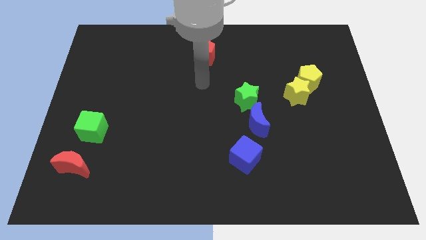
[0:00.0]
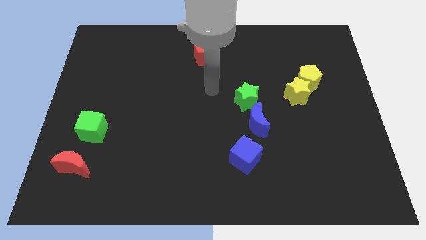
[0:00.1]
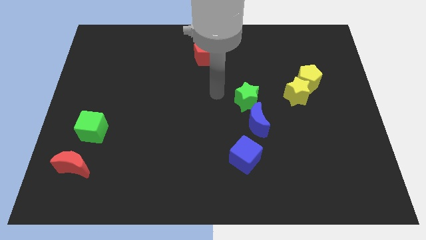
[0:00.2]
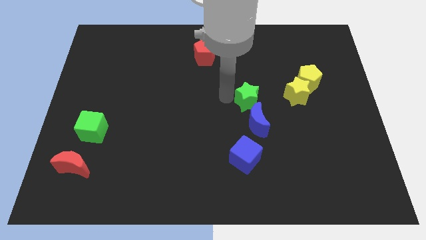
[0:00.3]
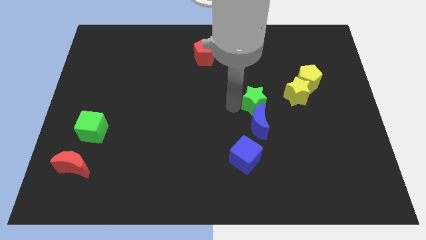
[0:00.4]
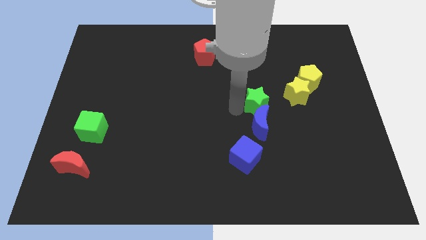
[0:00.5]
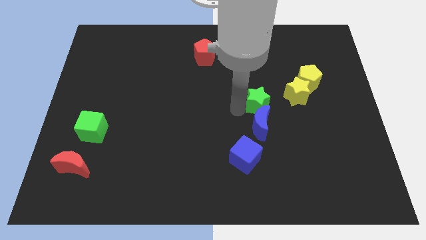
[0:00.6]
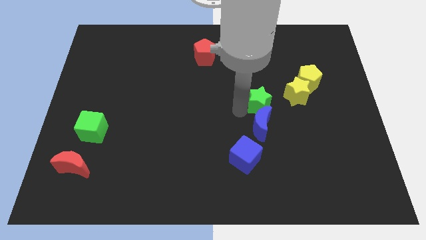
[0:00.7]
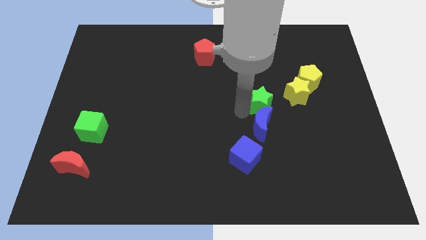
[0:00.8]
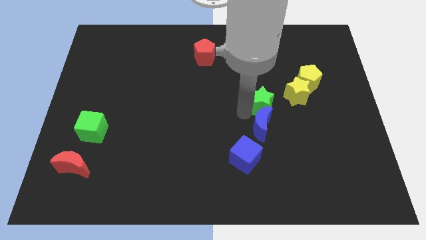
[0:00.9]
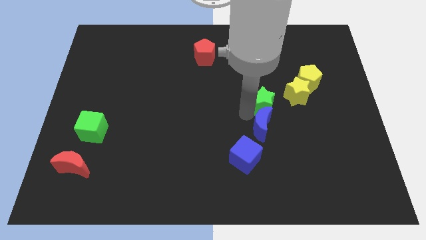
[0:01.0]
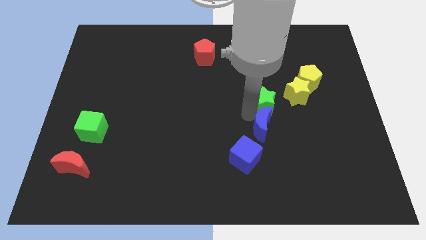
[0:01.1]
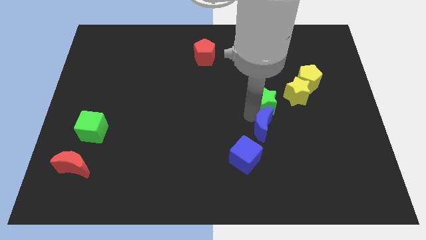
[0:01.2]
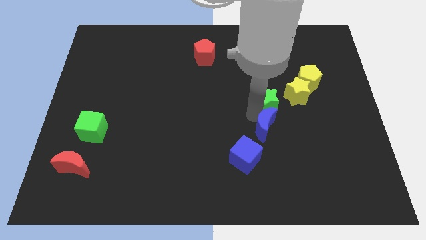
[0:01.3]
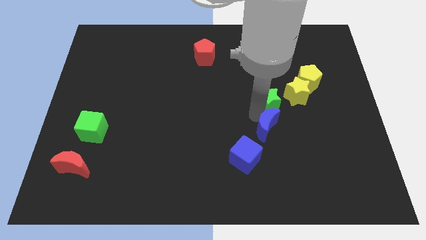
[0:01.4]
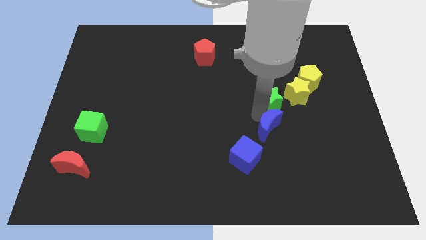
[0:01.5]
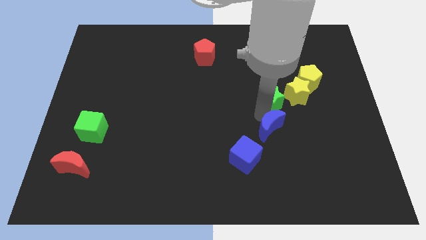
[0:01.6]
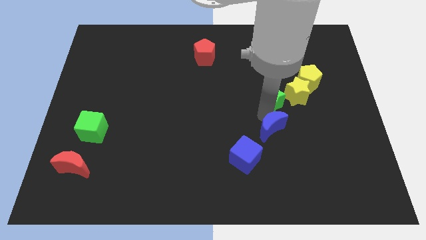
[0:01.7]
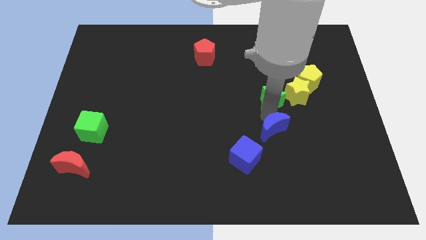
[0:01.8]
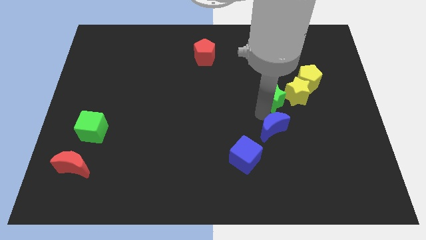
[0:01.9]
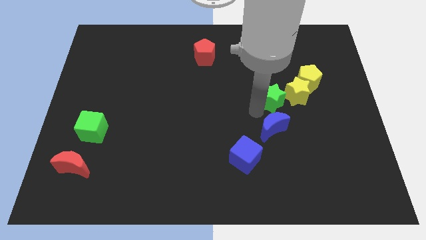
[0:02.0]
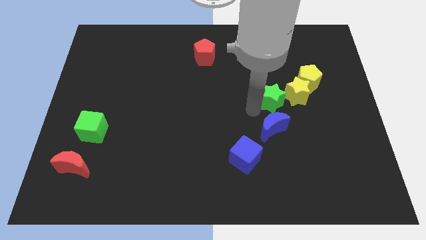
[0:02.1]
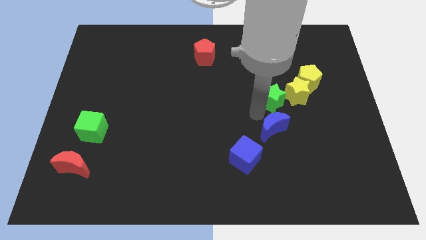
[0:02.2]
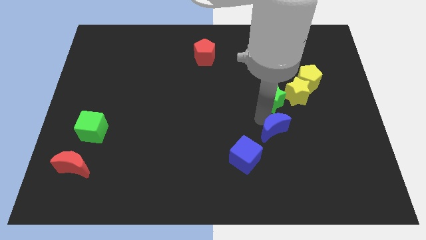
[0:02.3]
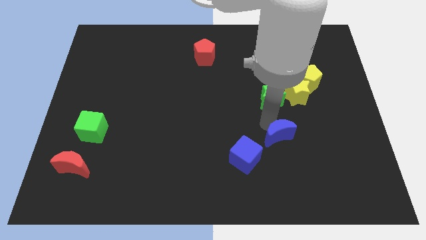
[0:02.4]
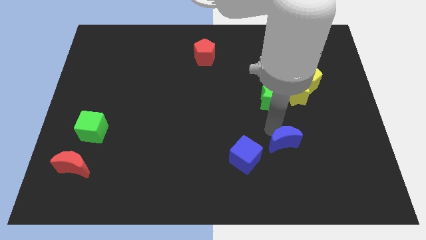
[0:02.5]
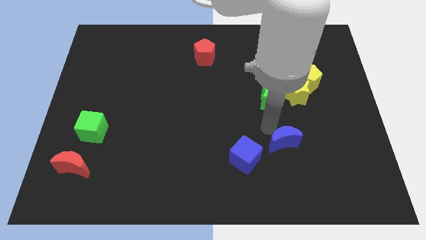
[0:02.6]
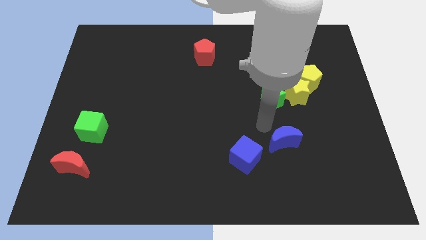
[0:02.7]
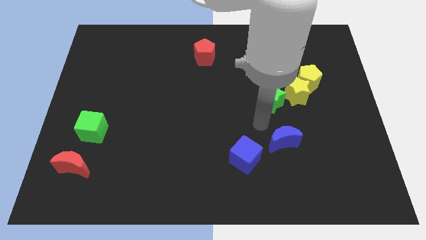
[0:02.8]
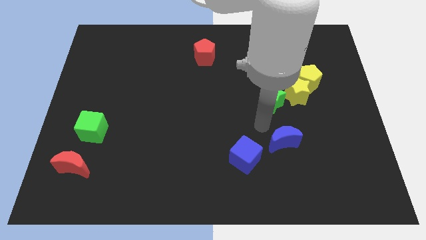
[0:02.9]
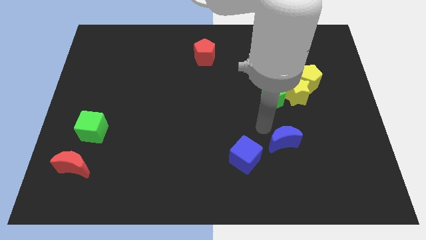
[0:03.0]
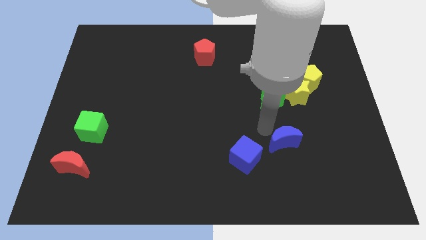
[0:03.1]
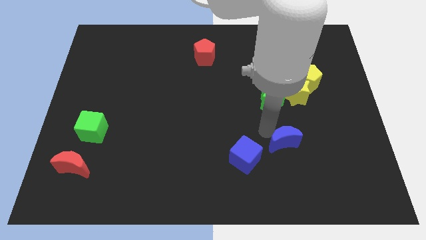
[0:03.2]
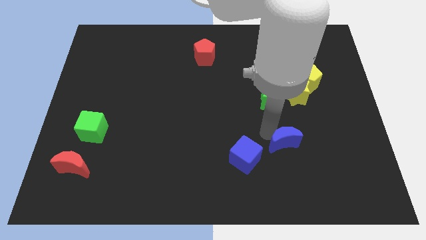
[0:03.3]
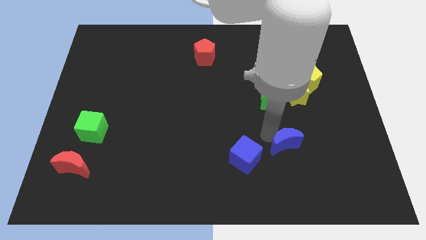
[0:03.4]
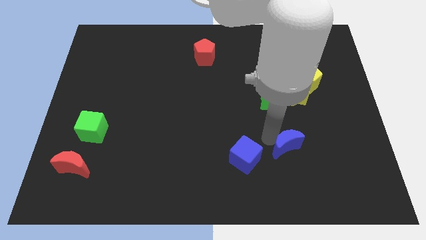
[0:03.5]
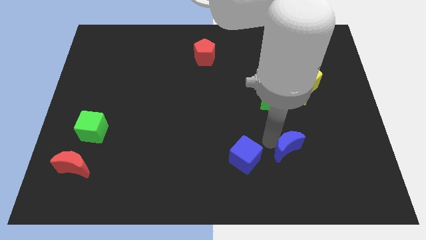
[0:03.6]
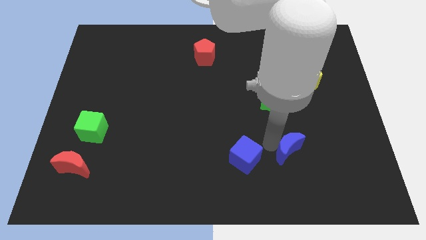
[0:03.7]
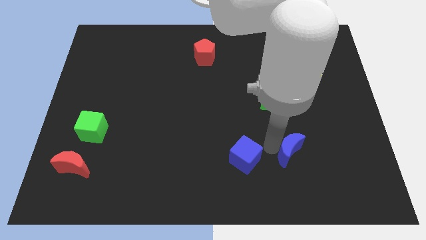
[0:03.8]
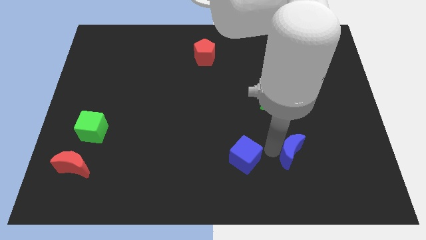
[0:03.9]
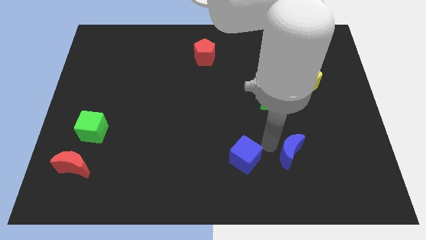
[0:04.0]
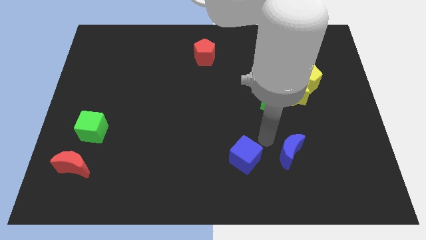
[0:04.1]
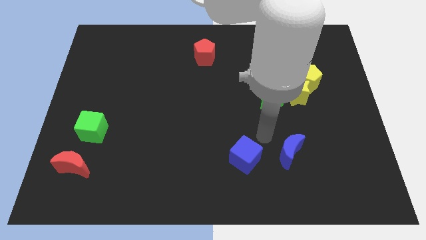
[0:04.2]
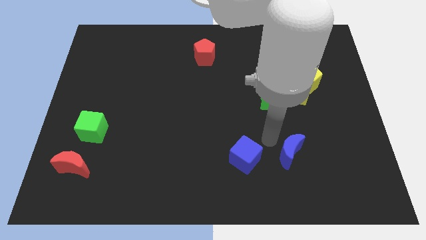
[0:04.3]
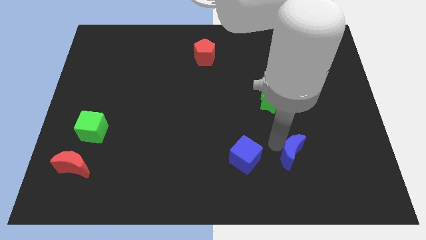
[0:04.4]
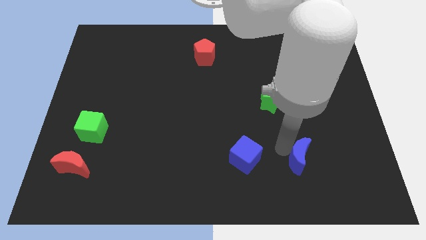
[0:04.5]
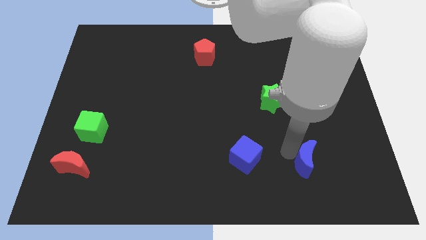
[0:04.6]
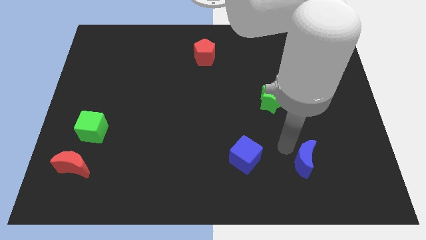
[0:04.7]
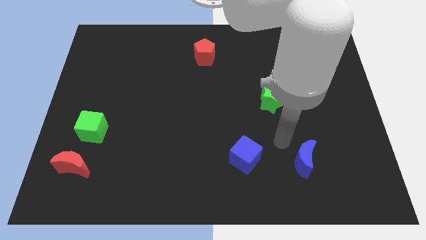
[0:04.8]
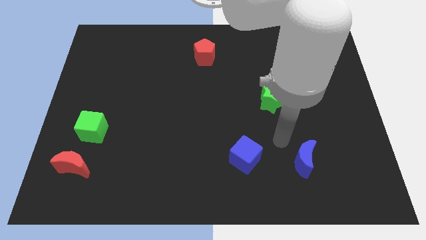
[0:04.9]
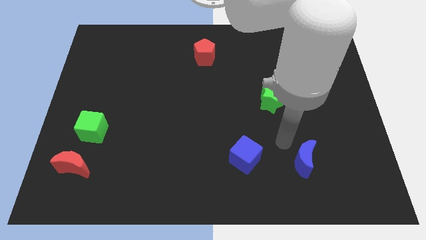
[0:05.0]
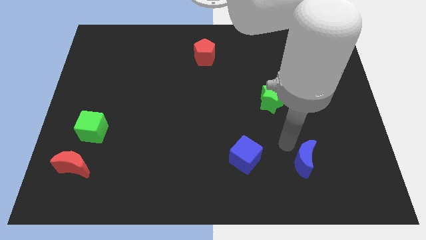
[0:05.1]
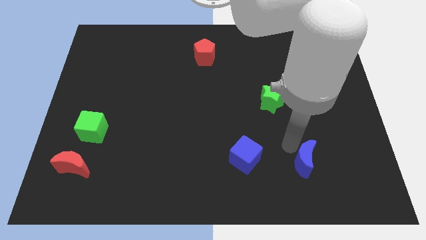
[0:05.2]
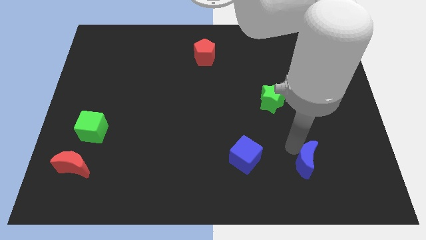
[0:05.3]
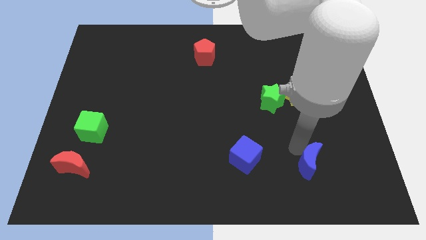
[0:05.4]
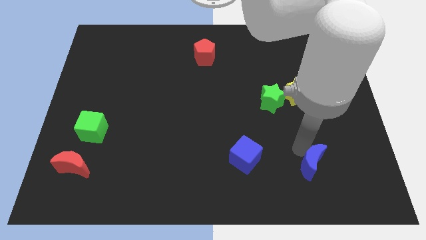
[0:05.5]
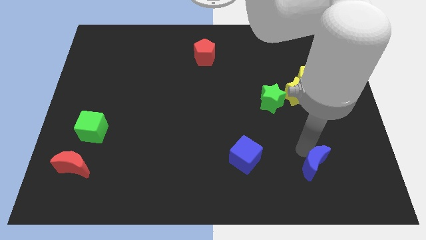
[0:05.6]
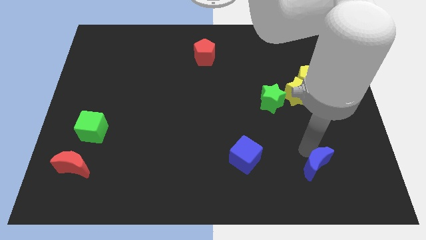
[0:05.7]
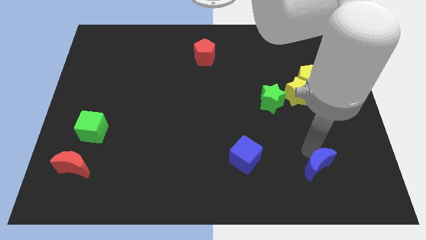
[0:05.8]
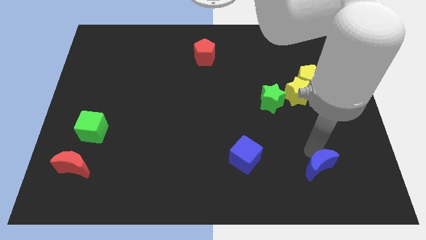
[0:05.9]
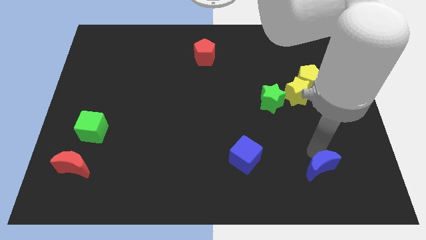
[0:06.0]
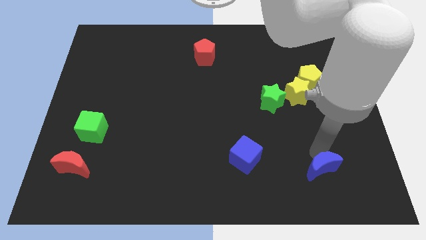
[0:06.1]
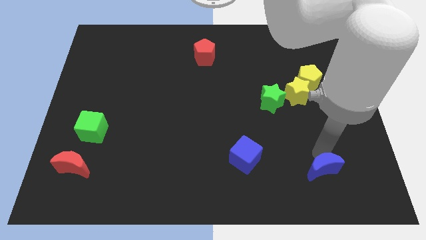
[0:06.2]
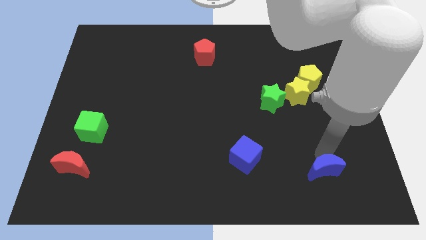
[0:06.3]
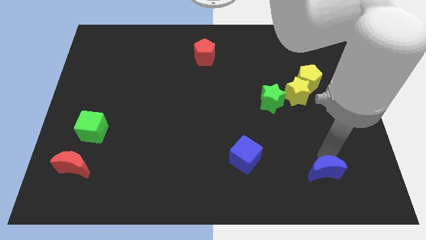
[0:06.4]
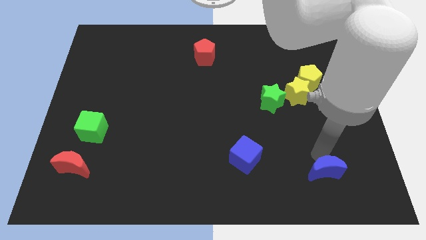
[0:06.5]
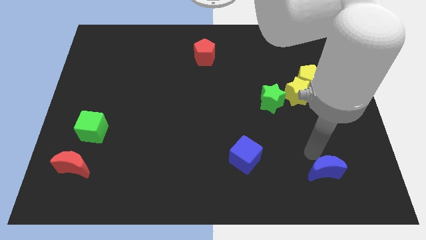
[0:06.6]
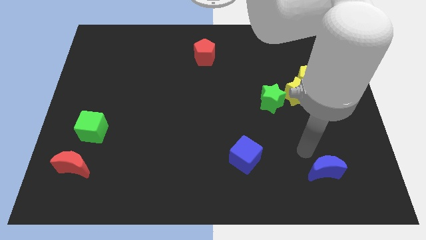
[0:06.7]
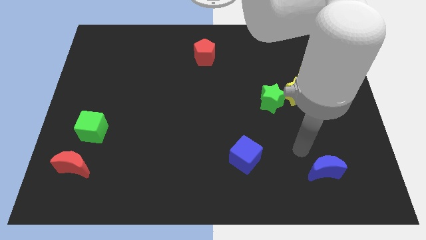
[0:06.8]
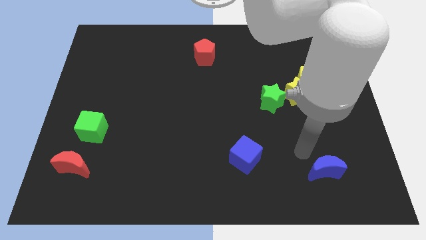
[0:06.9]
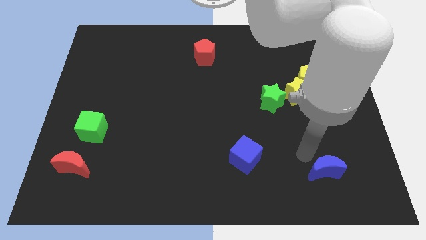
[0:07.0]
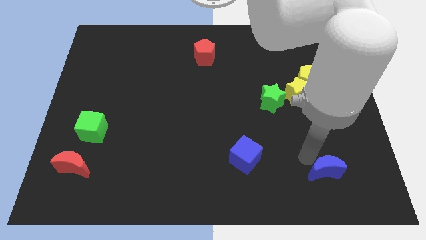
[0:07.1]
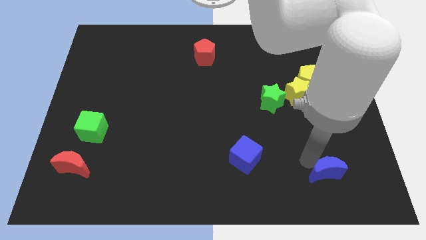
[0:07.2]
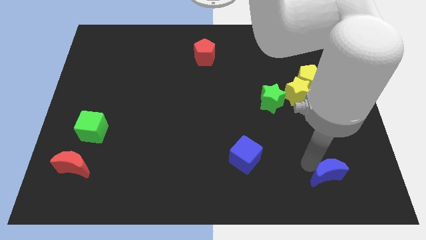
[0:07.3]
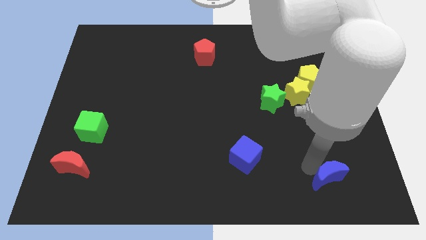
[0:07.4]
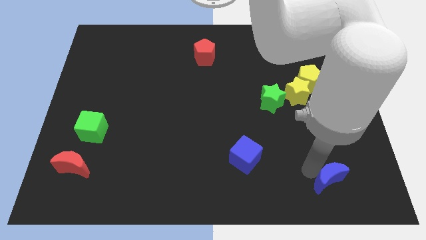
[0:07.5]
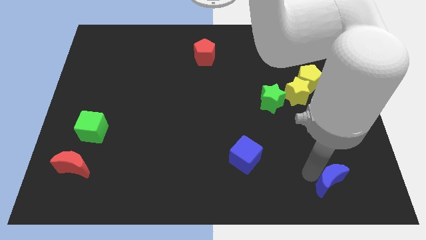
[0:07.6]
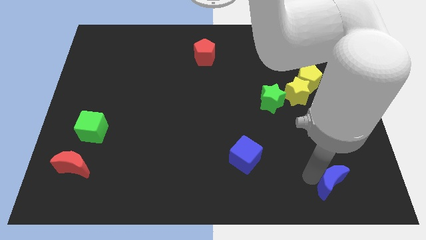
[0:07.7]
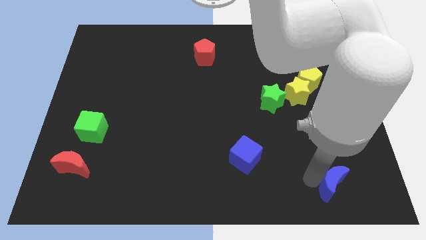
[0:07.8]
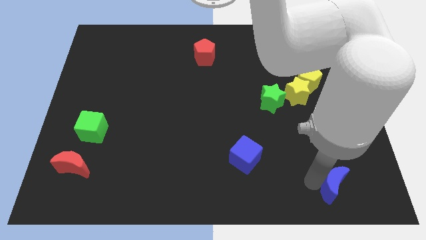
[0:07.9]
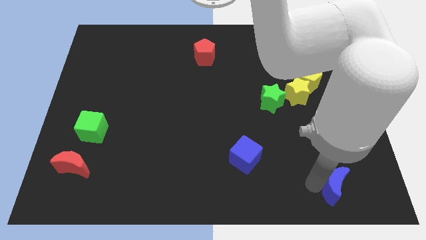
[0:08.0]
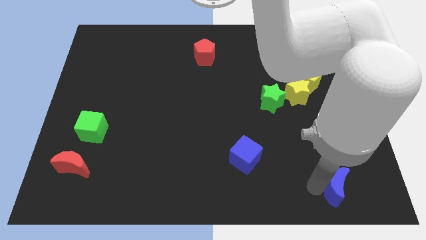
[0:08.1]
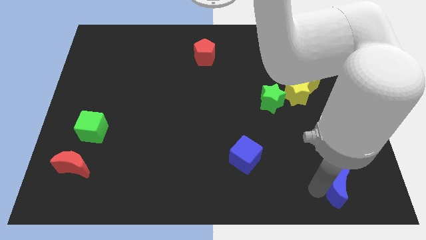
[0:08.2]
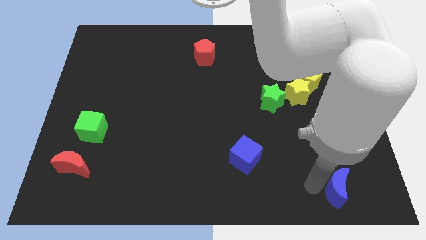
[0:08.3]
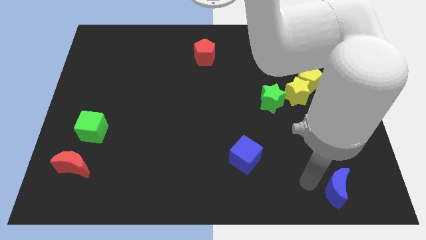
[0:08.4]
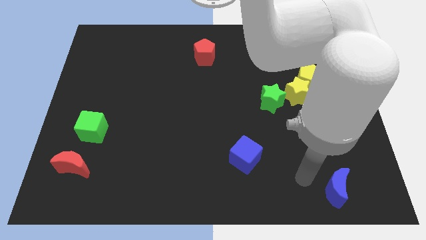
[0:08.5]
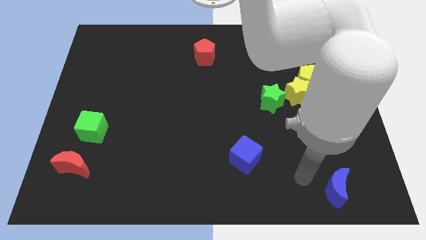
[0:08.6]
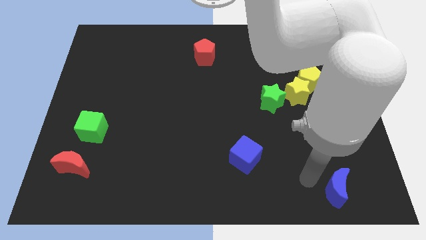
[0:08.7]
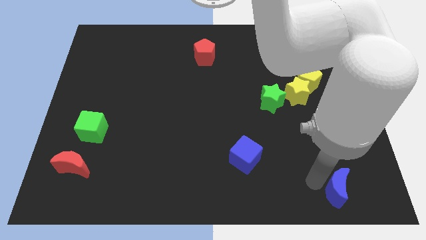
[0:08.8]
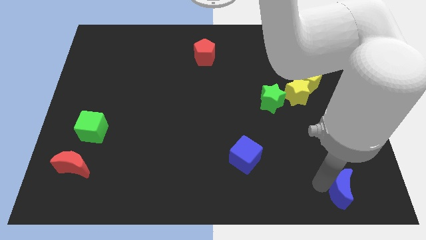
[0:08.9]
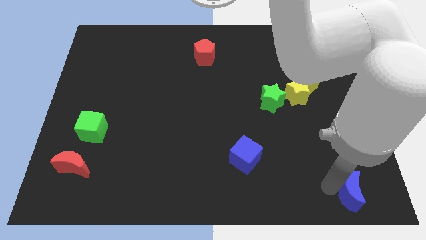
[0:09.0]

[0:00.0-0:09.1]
push the blue moon to the bottom right
